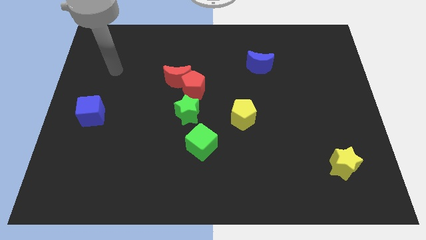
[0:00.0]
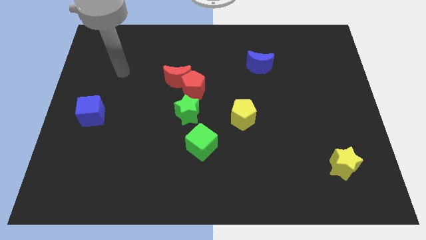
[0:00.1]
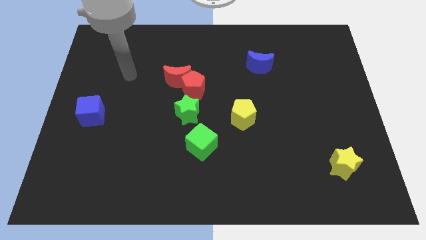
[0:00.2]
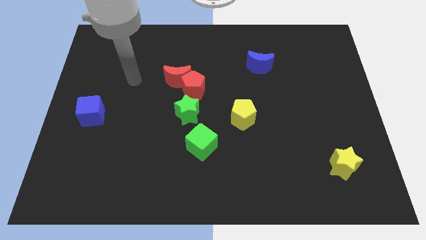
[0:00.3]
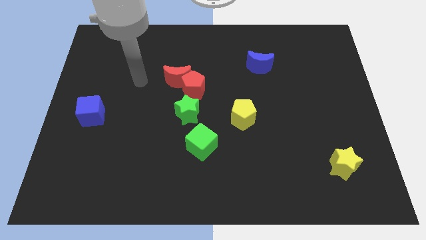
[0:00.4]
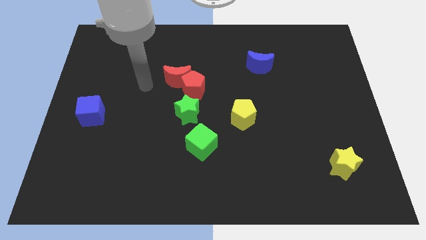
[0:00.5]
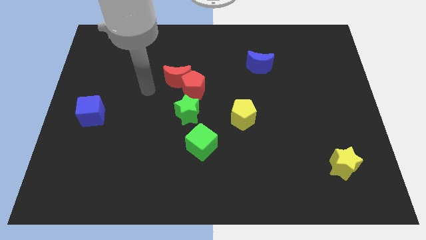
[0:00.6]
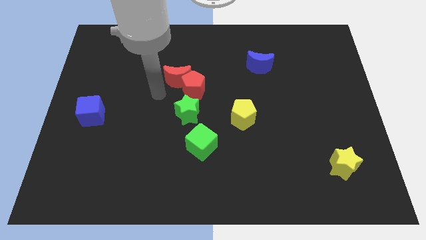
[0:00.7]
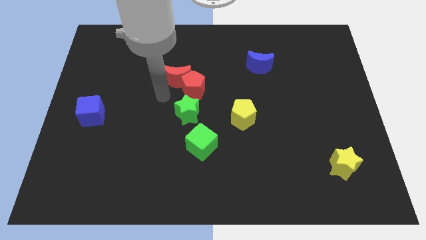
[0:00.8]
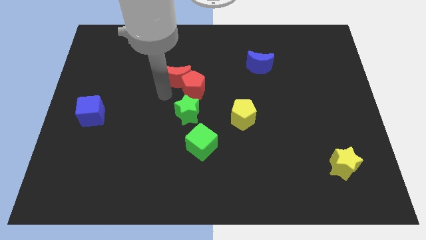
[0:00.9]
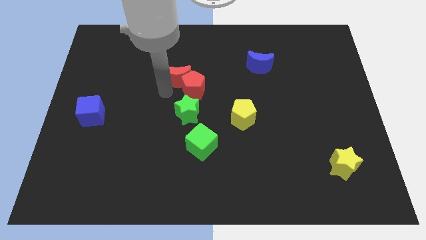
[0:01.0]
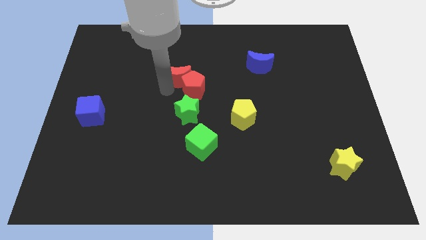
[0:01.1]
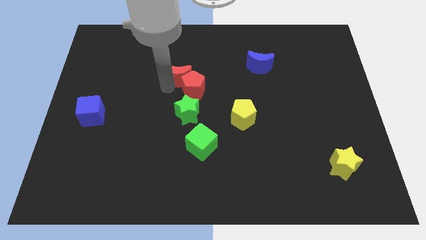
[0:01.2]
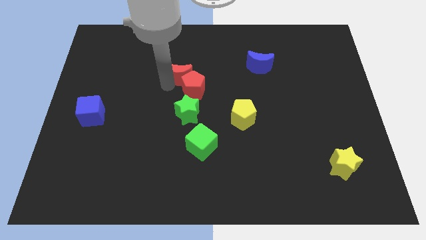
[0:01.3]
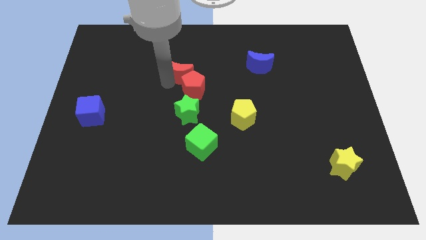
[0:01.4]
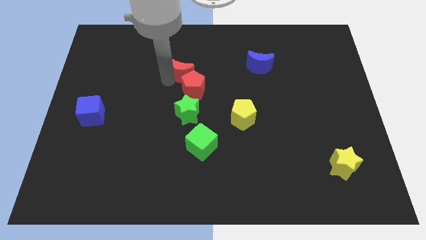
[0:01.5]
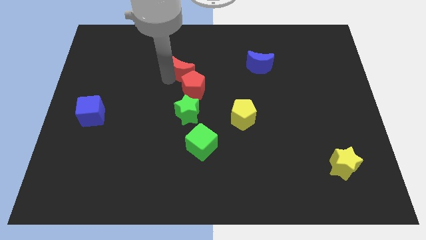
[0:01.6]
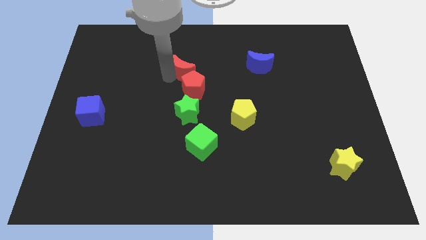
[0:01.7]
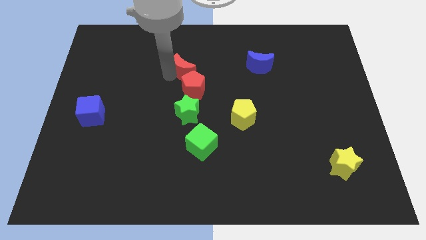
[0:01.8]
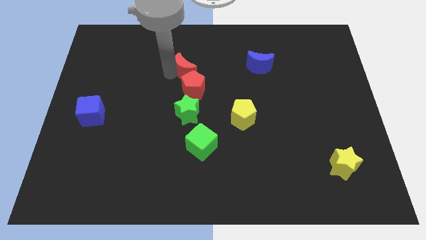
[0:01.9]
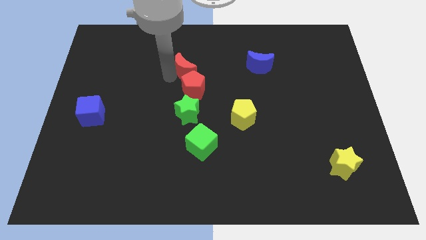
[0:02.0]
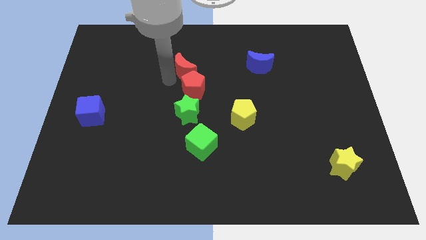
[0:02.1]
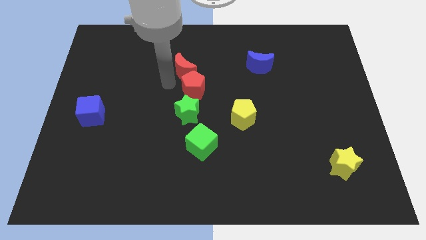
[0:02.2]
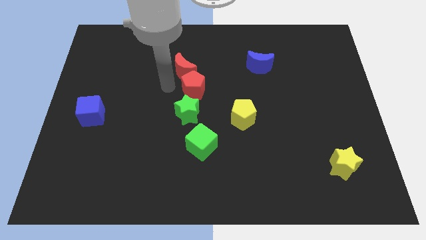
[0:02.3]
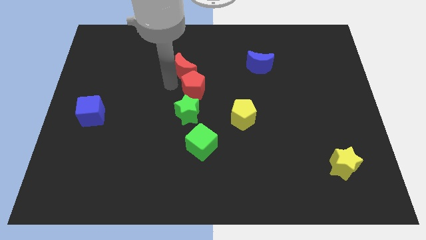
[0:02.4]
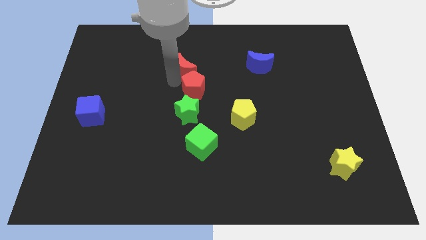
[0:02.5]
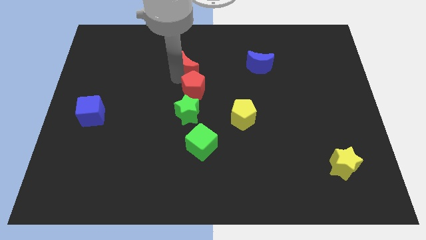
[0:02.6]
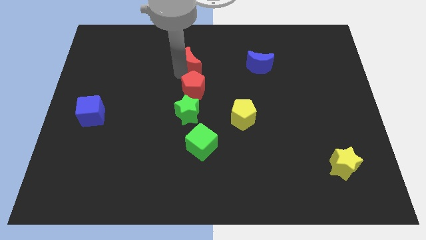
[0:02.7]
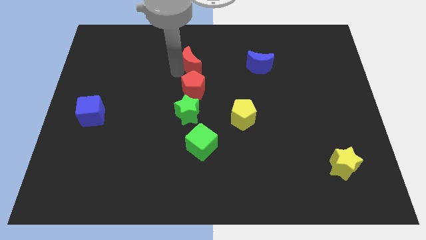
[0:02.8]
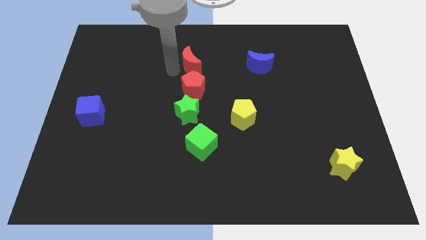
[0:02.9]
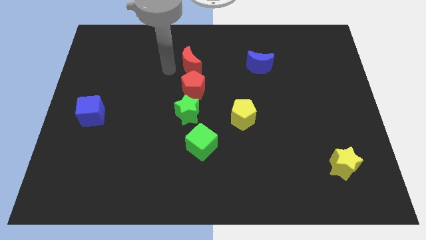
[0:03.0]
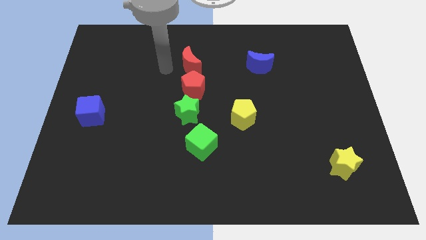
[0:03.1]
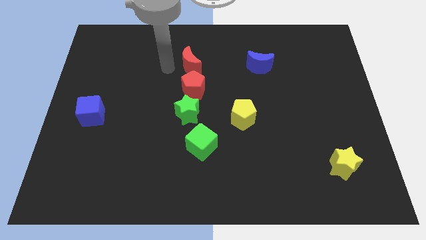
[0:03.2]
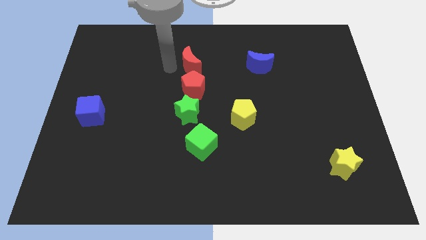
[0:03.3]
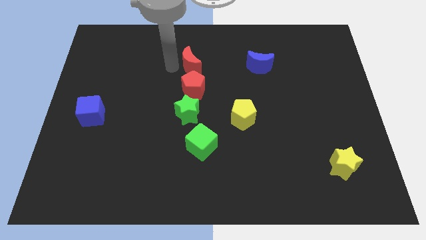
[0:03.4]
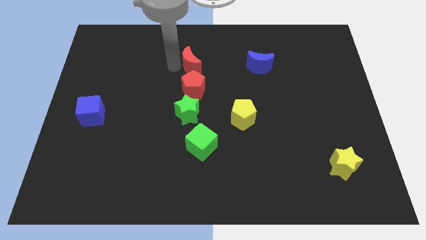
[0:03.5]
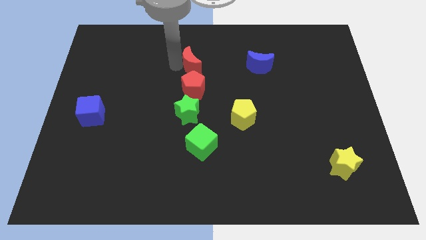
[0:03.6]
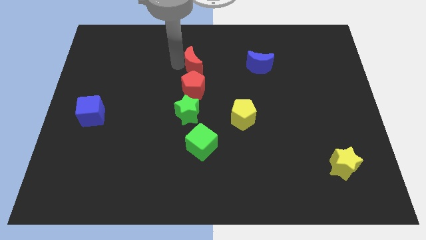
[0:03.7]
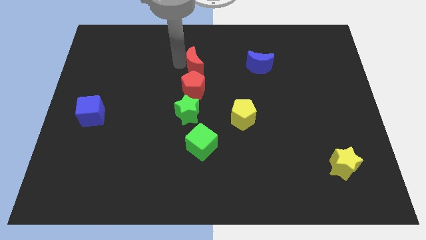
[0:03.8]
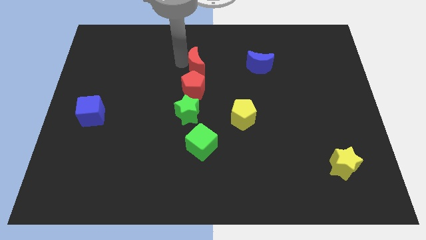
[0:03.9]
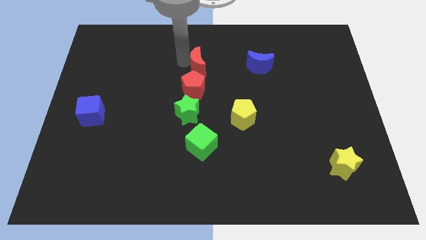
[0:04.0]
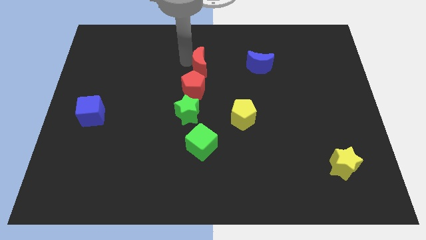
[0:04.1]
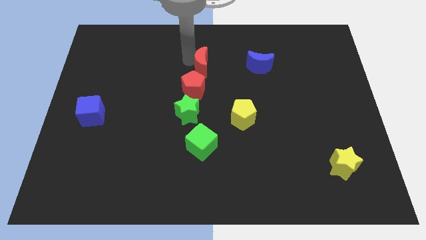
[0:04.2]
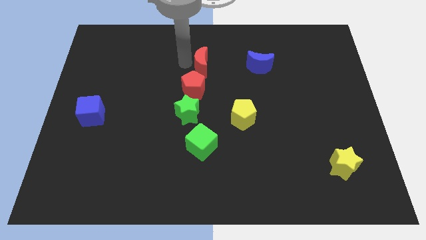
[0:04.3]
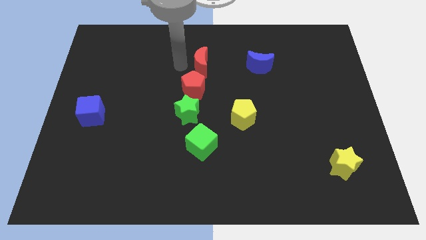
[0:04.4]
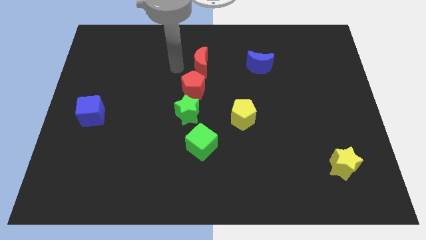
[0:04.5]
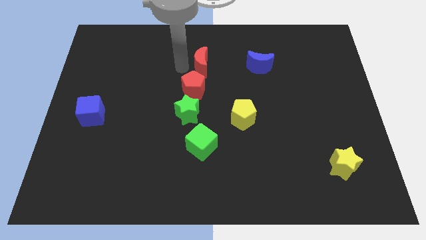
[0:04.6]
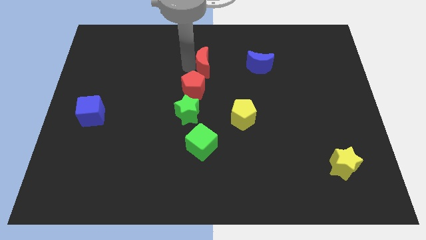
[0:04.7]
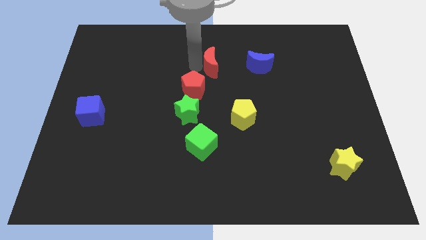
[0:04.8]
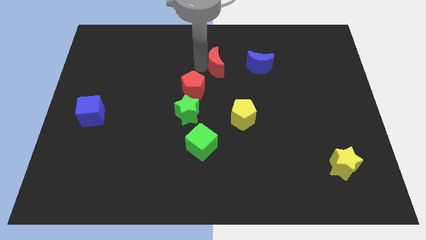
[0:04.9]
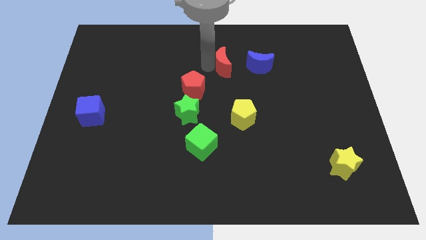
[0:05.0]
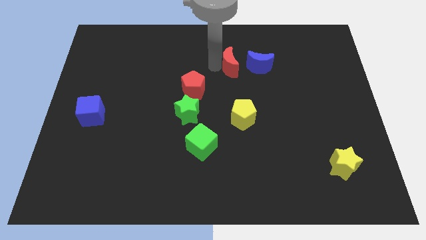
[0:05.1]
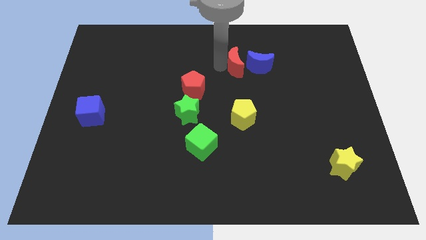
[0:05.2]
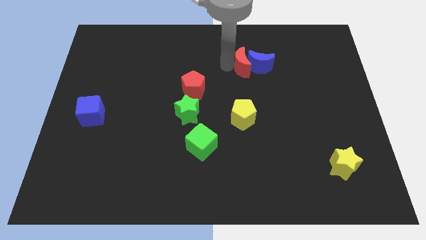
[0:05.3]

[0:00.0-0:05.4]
put the red moon towards the blue moon

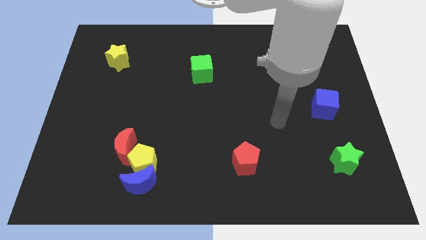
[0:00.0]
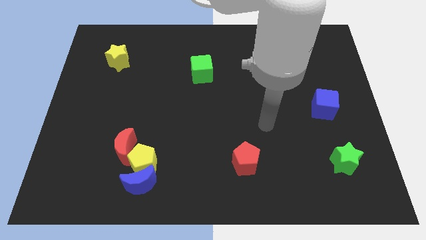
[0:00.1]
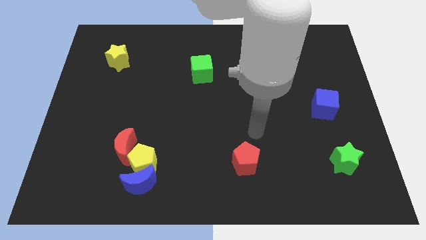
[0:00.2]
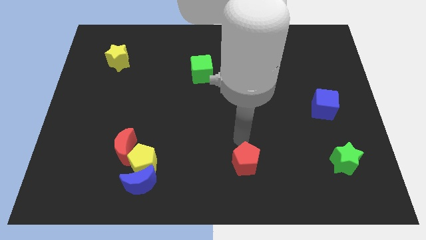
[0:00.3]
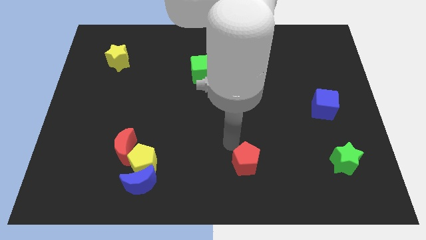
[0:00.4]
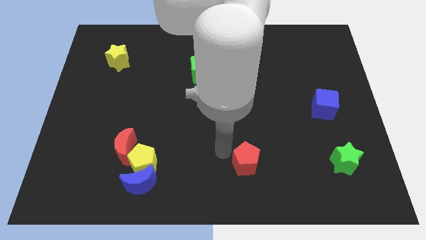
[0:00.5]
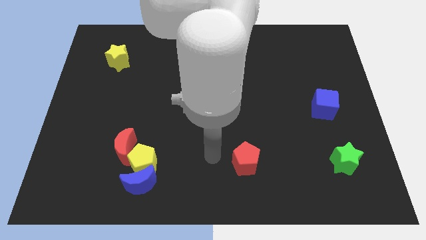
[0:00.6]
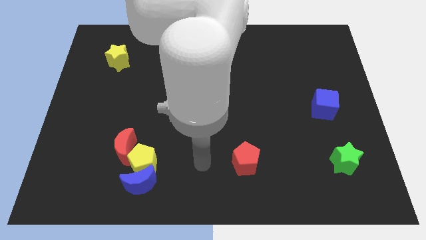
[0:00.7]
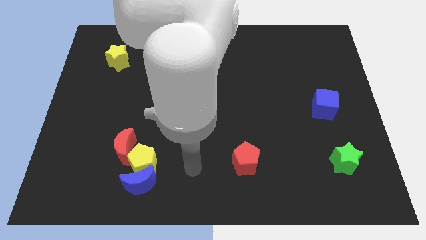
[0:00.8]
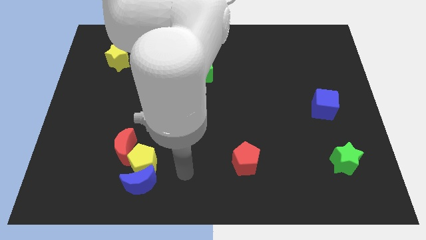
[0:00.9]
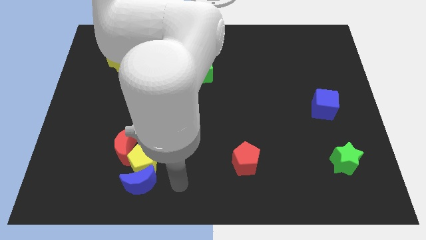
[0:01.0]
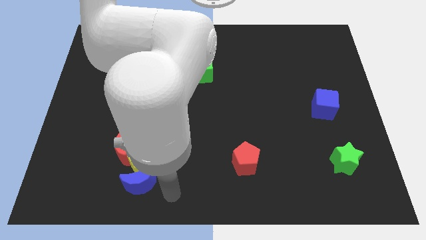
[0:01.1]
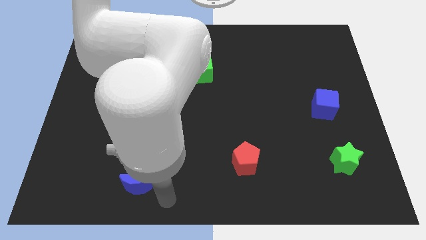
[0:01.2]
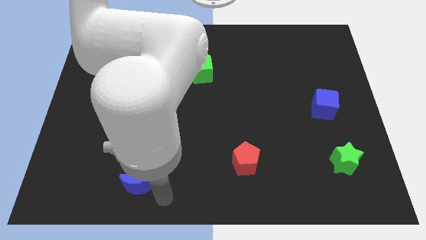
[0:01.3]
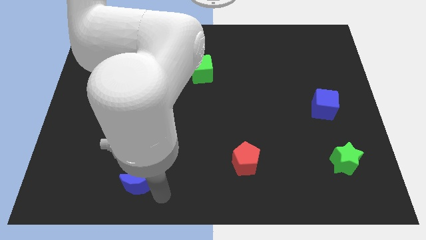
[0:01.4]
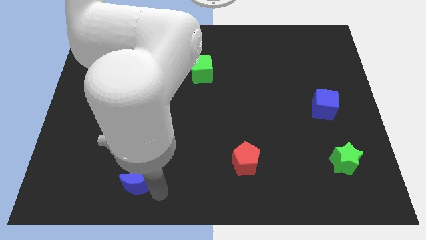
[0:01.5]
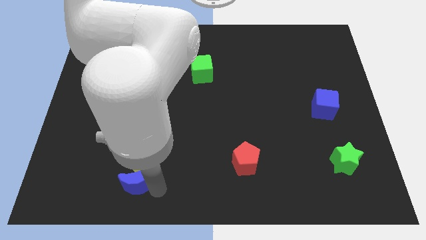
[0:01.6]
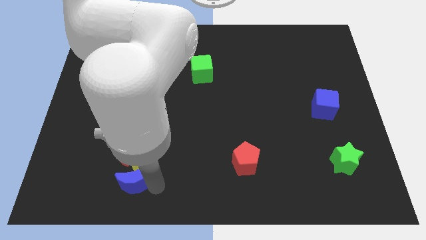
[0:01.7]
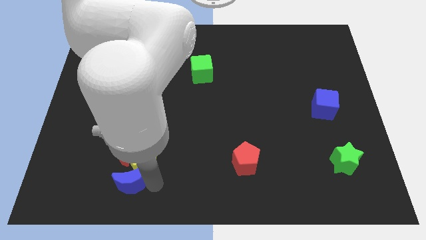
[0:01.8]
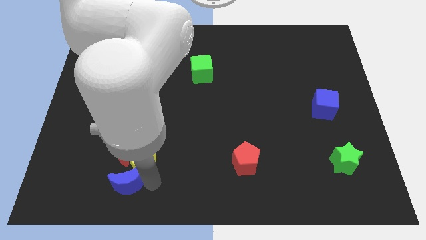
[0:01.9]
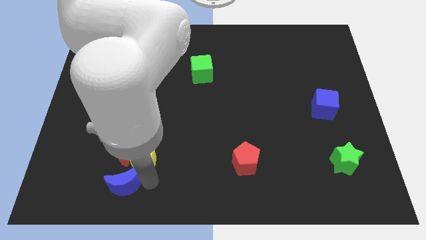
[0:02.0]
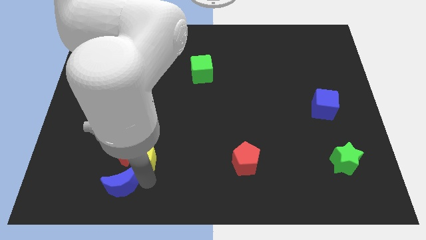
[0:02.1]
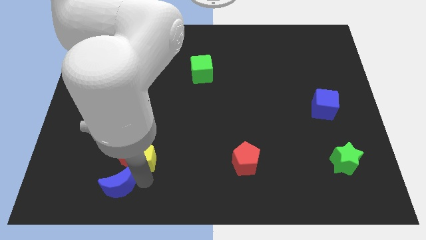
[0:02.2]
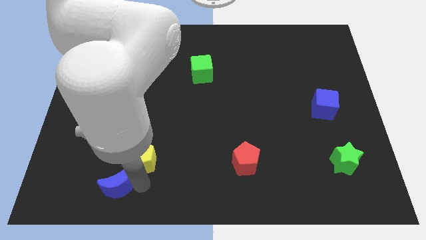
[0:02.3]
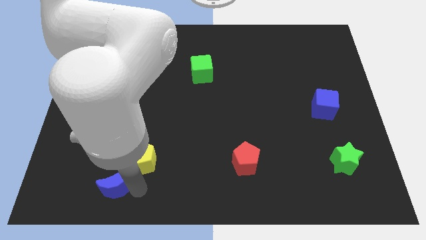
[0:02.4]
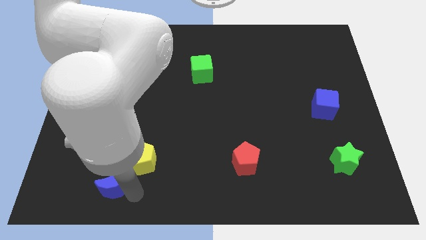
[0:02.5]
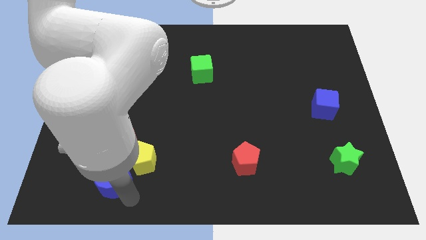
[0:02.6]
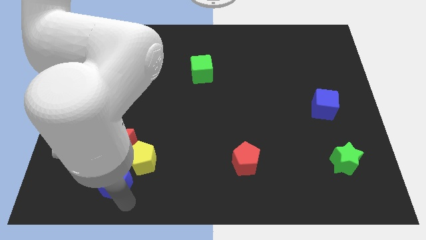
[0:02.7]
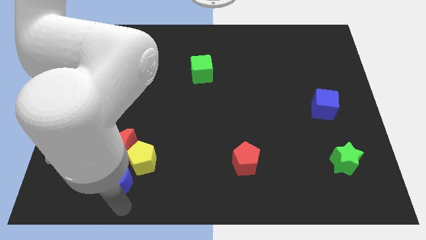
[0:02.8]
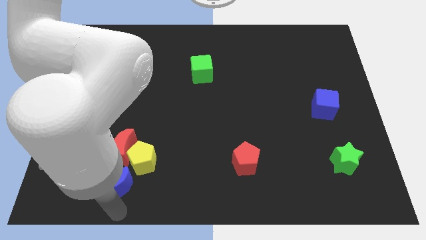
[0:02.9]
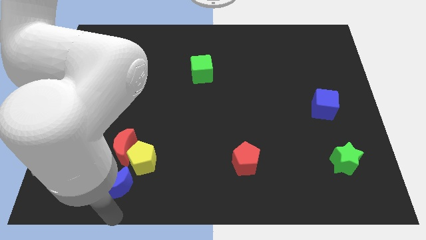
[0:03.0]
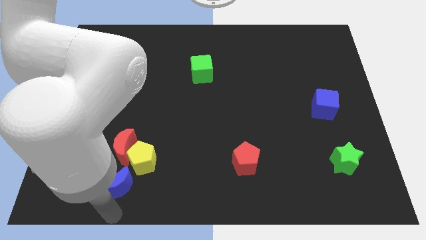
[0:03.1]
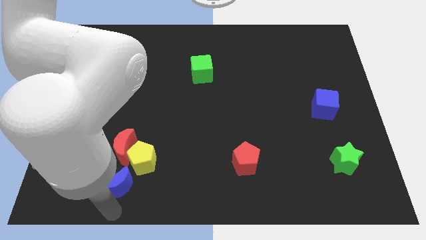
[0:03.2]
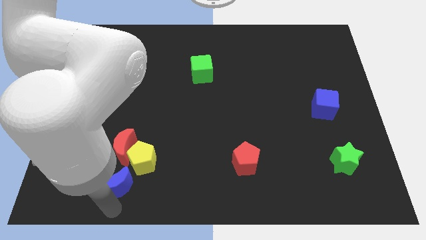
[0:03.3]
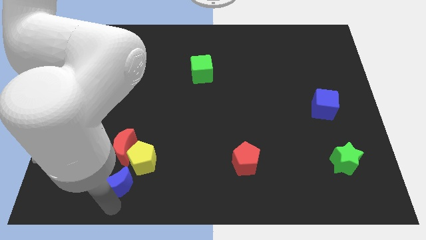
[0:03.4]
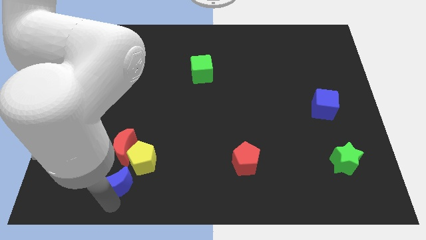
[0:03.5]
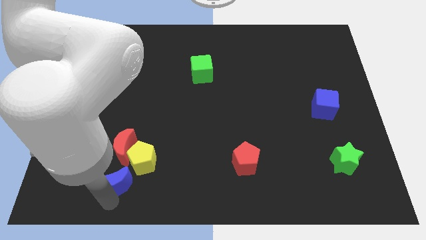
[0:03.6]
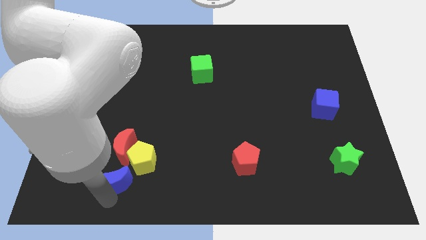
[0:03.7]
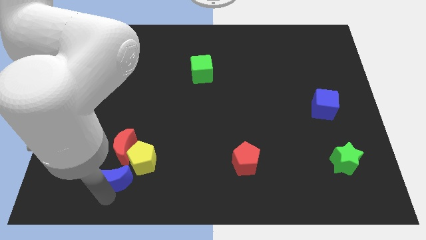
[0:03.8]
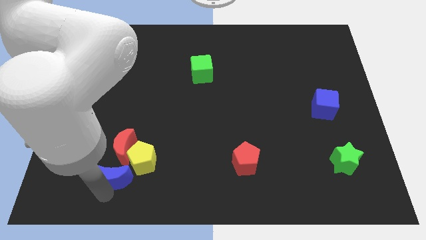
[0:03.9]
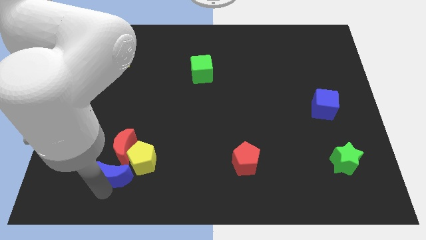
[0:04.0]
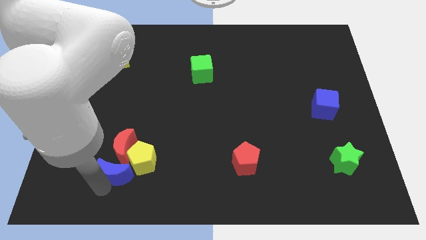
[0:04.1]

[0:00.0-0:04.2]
push the blue moon next to the red moon
